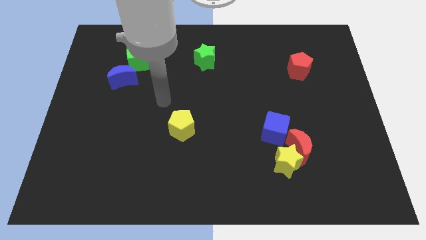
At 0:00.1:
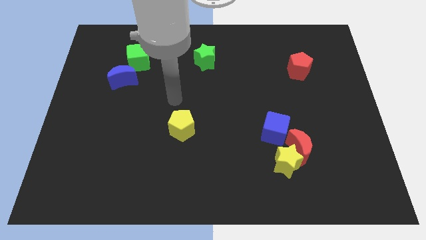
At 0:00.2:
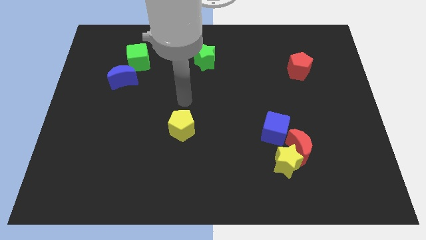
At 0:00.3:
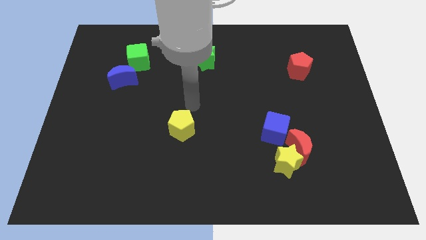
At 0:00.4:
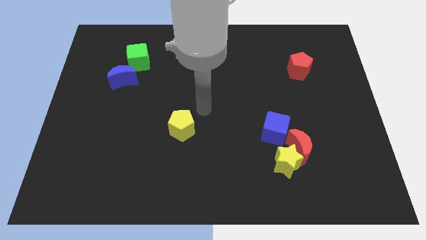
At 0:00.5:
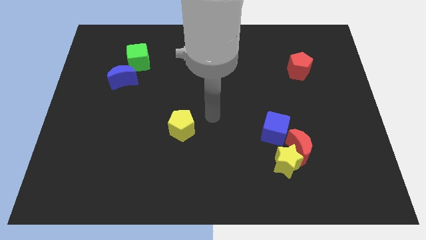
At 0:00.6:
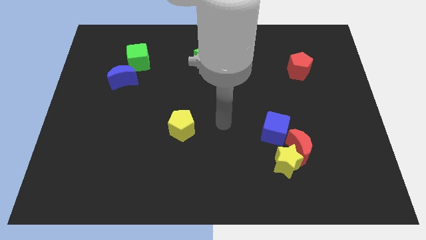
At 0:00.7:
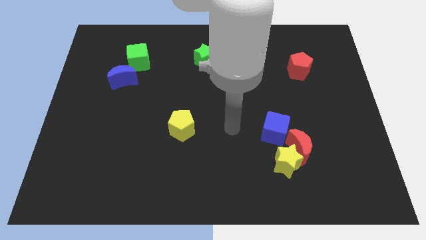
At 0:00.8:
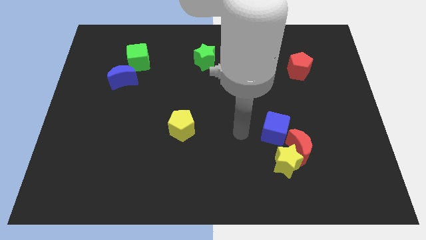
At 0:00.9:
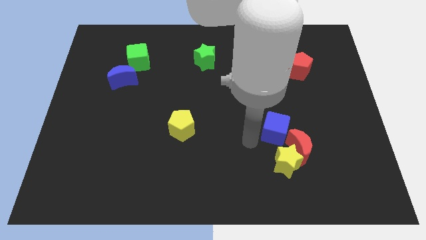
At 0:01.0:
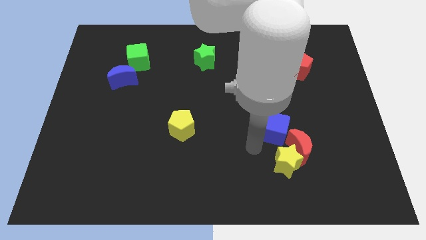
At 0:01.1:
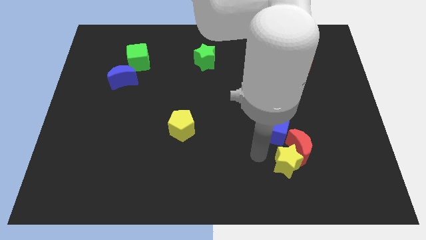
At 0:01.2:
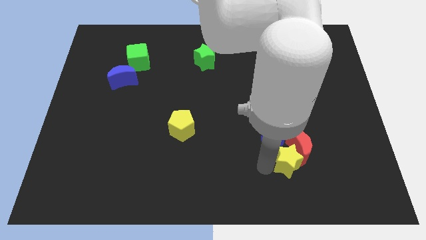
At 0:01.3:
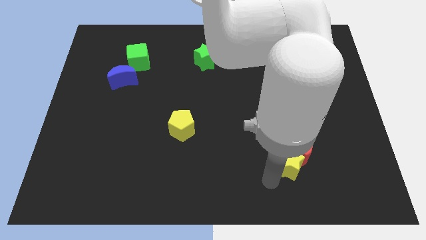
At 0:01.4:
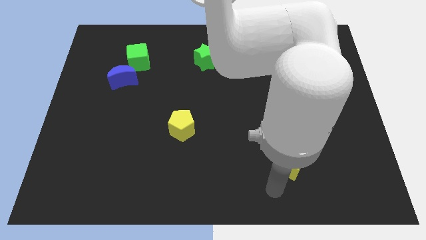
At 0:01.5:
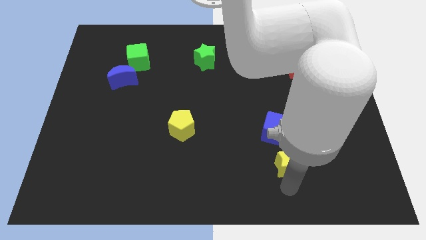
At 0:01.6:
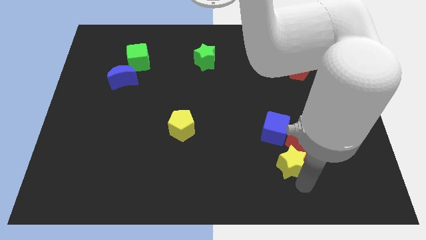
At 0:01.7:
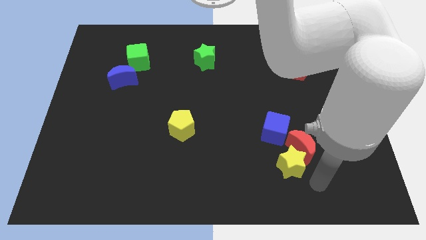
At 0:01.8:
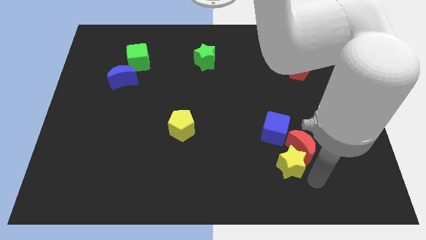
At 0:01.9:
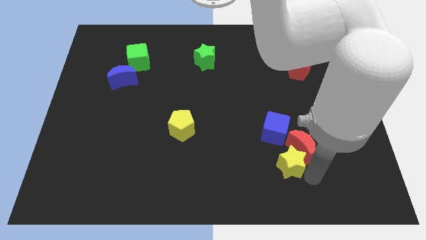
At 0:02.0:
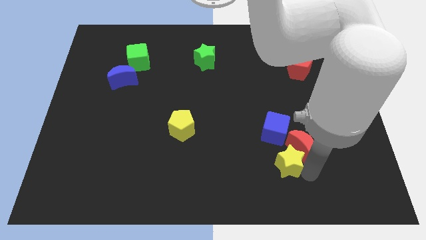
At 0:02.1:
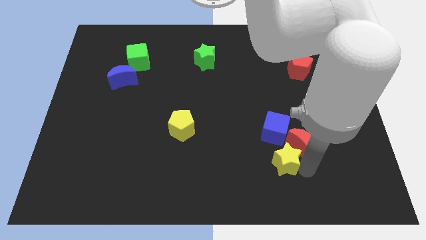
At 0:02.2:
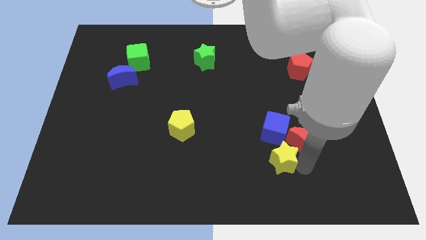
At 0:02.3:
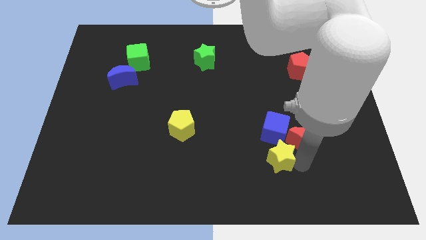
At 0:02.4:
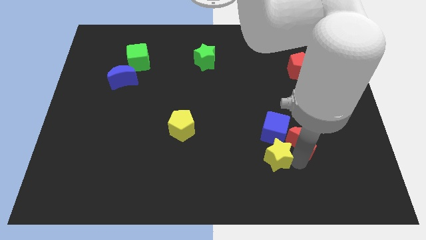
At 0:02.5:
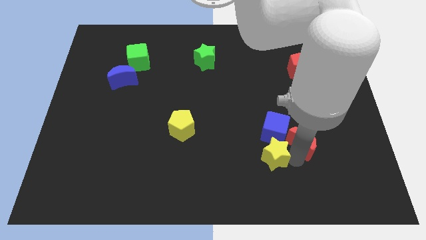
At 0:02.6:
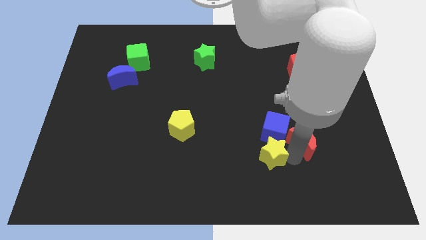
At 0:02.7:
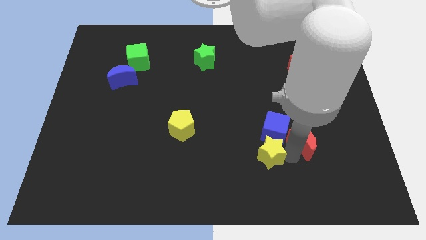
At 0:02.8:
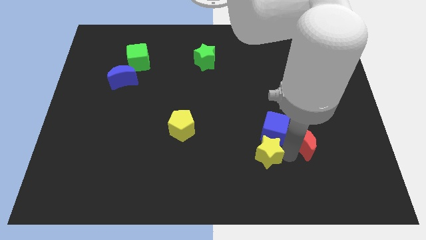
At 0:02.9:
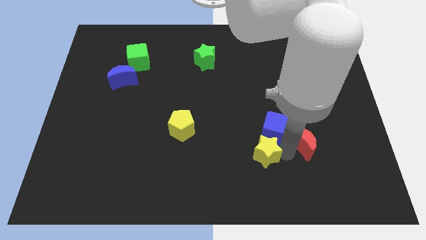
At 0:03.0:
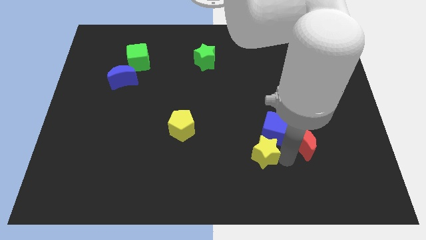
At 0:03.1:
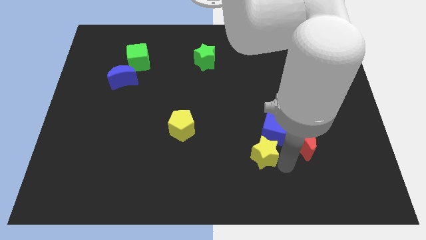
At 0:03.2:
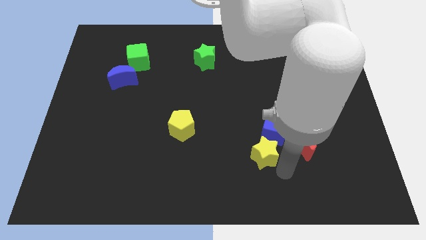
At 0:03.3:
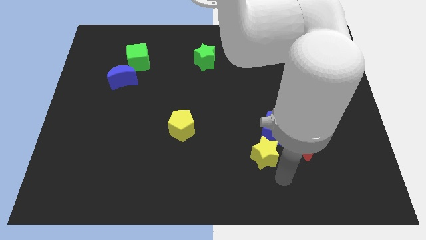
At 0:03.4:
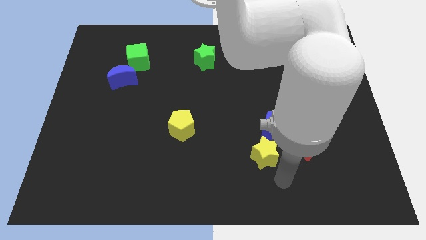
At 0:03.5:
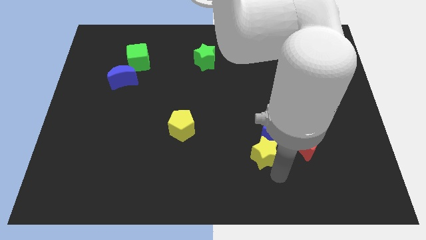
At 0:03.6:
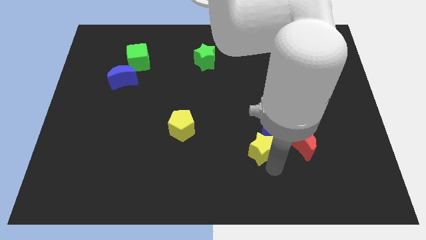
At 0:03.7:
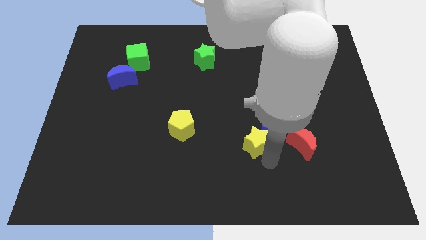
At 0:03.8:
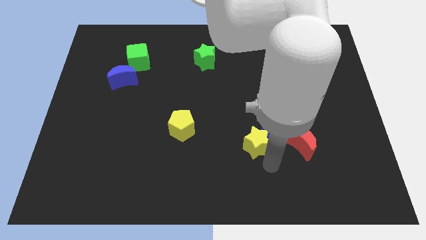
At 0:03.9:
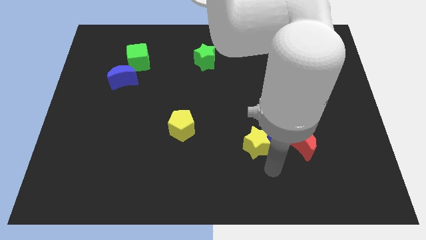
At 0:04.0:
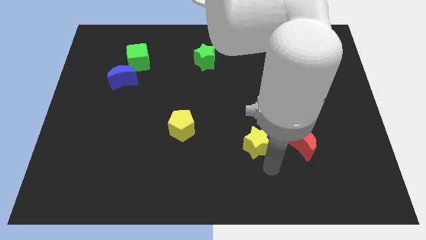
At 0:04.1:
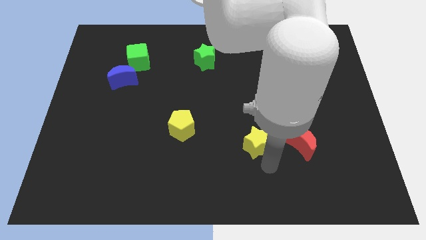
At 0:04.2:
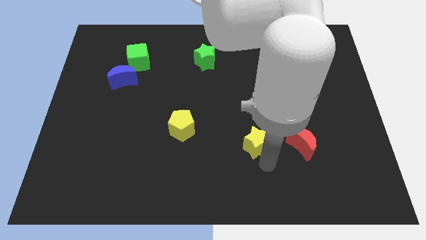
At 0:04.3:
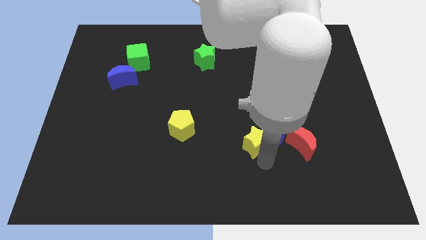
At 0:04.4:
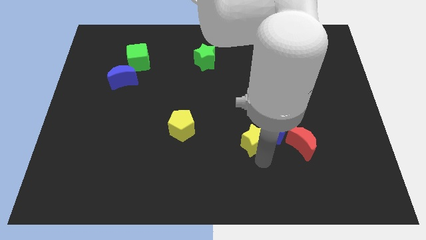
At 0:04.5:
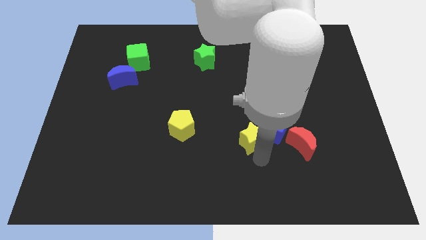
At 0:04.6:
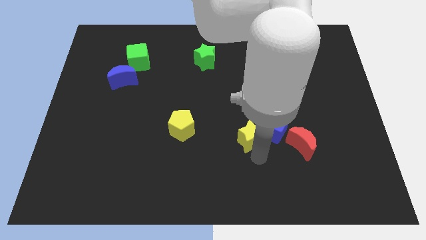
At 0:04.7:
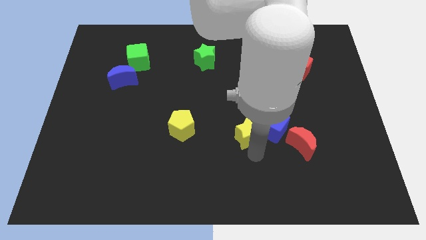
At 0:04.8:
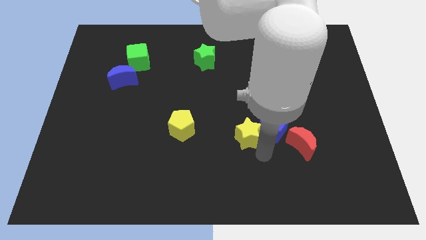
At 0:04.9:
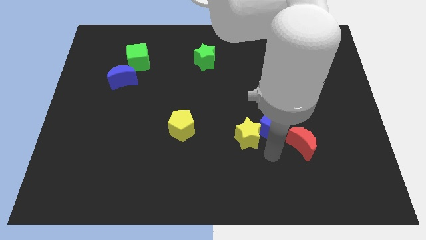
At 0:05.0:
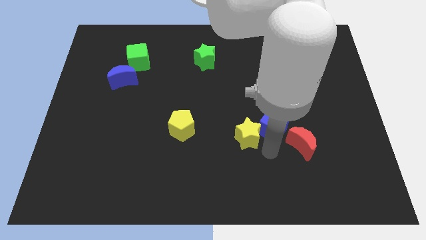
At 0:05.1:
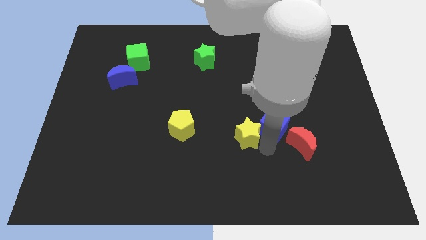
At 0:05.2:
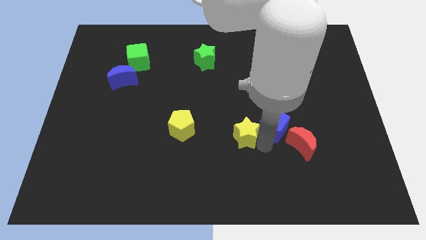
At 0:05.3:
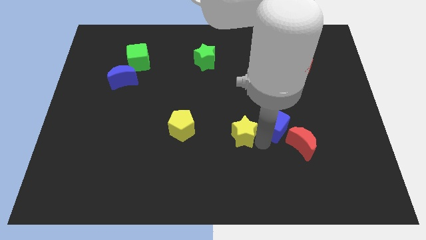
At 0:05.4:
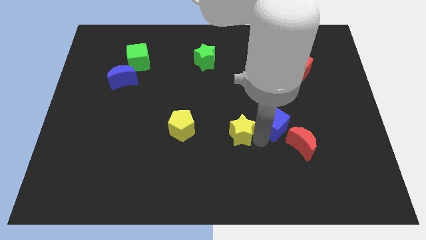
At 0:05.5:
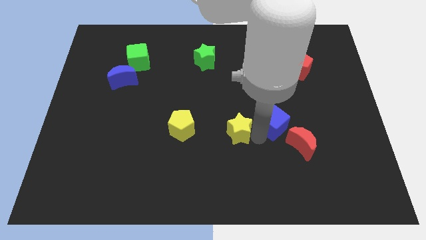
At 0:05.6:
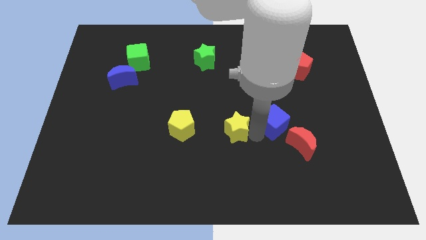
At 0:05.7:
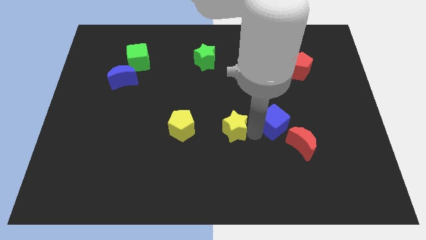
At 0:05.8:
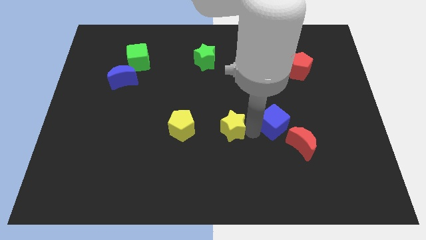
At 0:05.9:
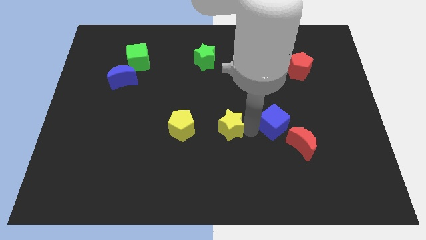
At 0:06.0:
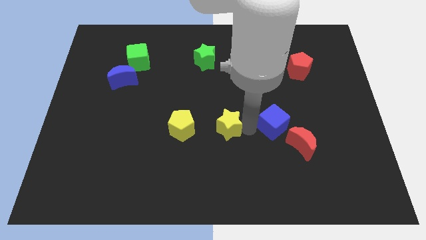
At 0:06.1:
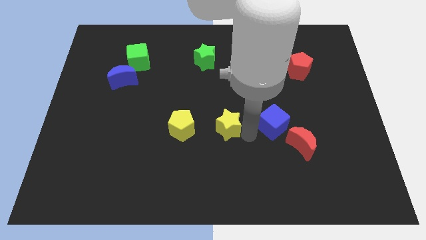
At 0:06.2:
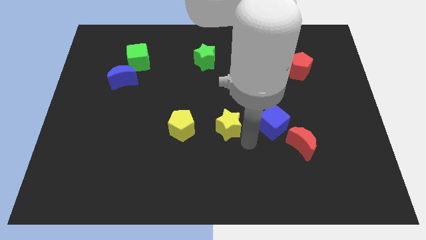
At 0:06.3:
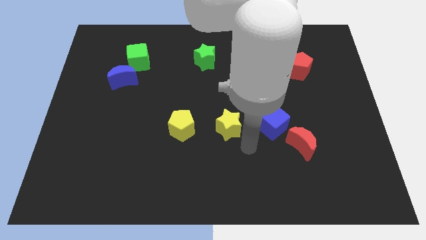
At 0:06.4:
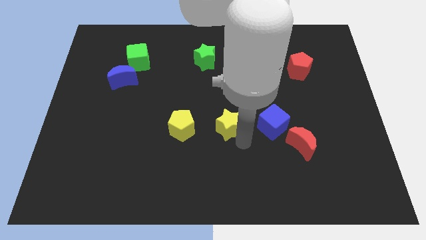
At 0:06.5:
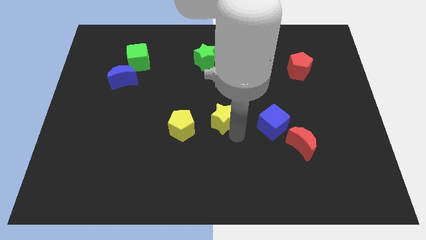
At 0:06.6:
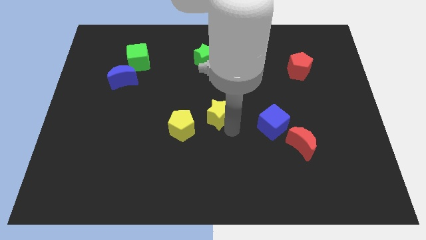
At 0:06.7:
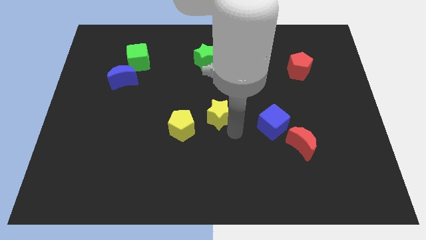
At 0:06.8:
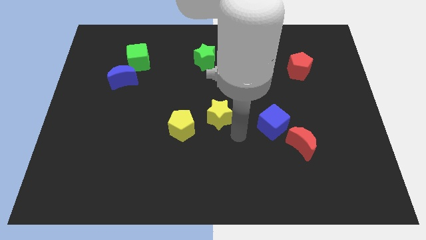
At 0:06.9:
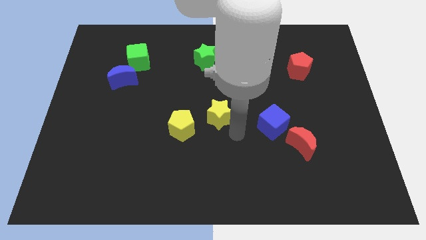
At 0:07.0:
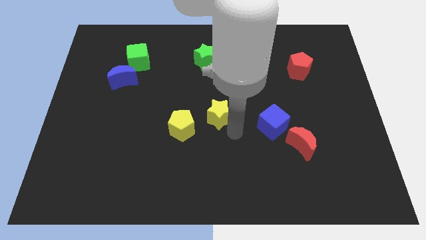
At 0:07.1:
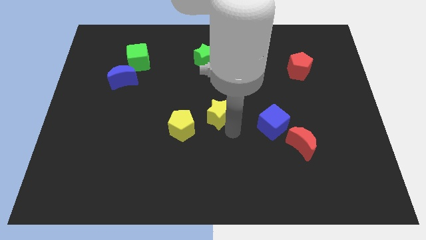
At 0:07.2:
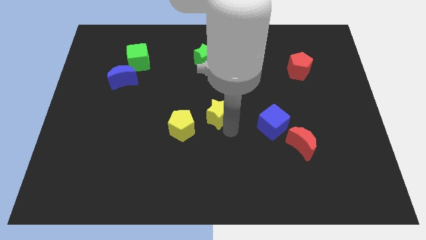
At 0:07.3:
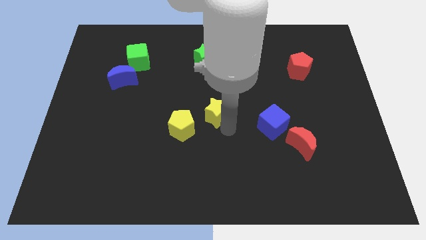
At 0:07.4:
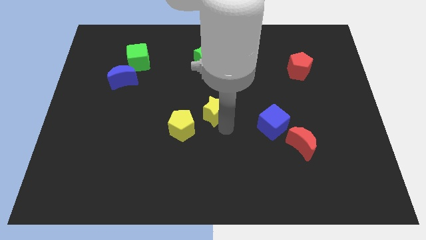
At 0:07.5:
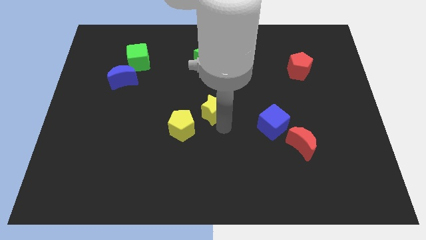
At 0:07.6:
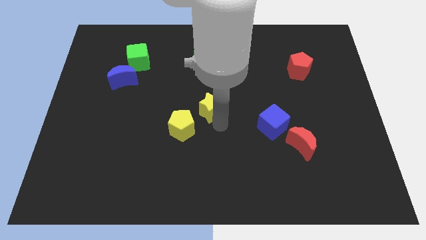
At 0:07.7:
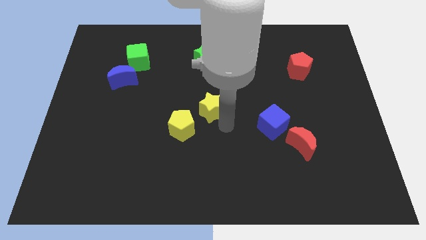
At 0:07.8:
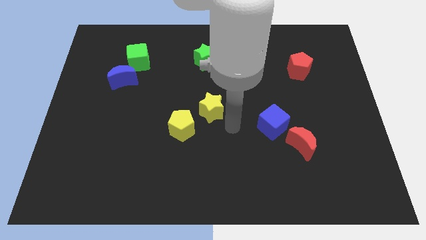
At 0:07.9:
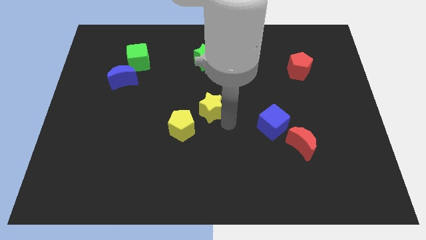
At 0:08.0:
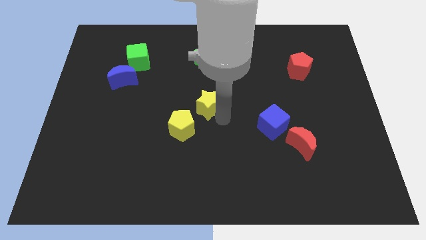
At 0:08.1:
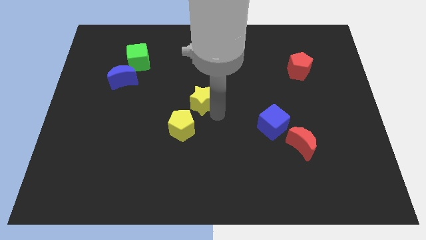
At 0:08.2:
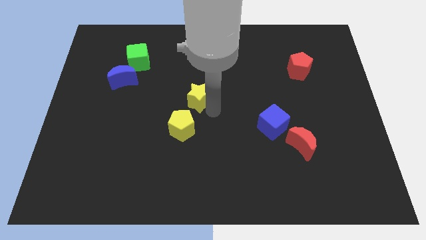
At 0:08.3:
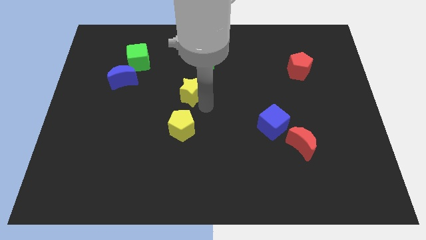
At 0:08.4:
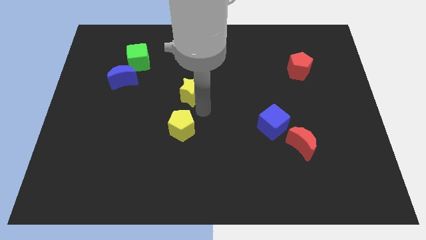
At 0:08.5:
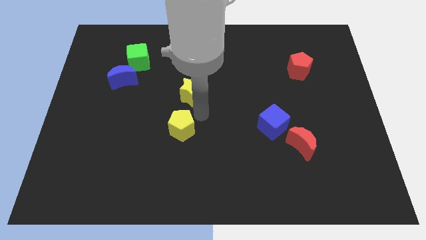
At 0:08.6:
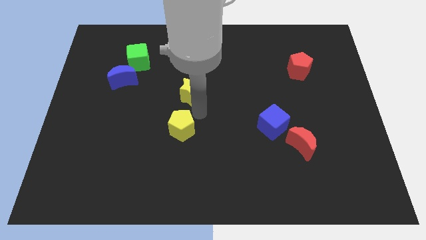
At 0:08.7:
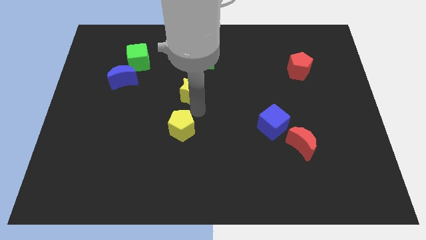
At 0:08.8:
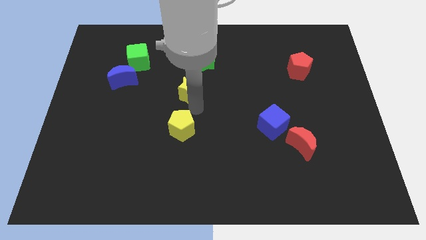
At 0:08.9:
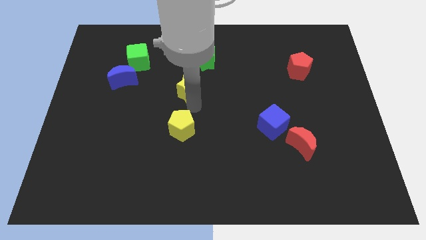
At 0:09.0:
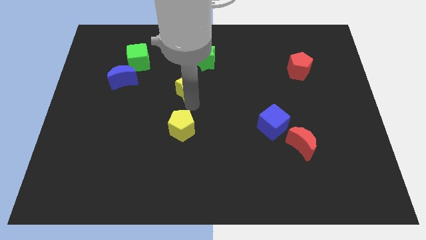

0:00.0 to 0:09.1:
move the yellow star to the bottom left of the green star
